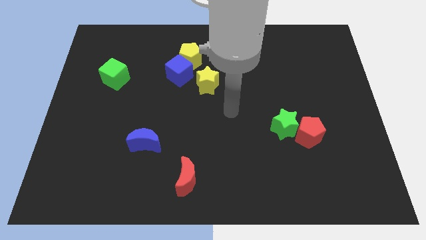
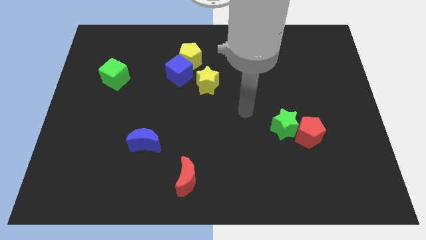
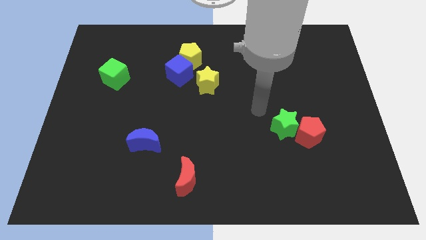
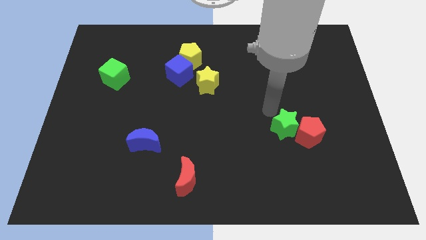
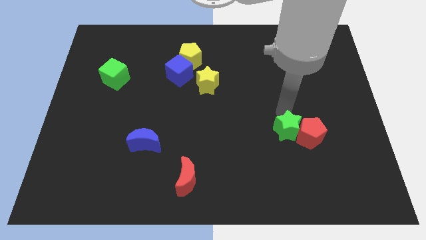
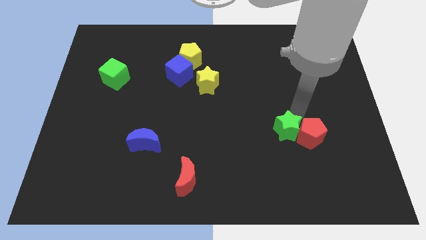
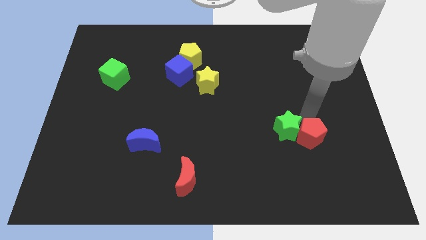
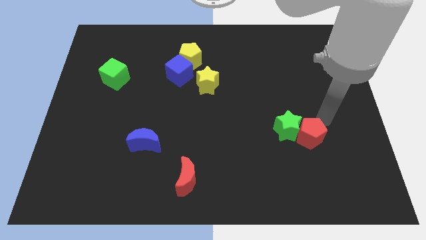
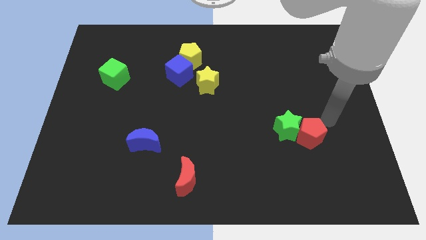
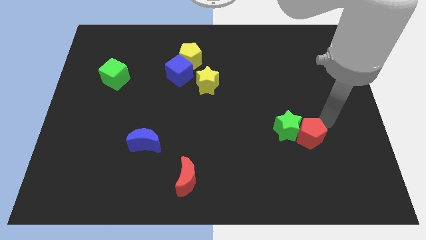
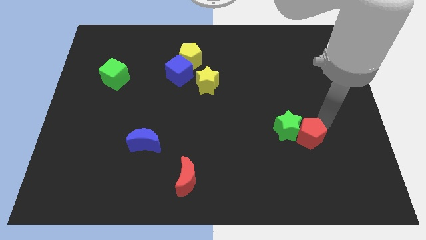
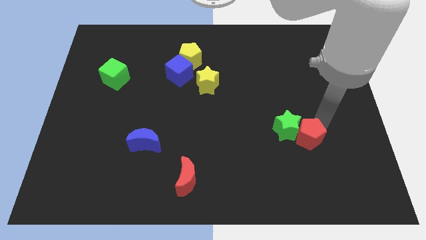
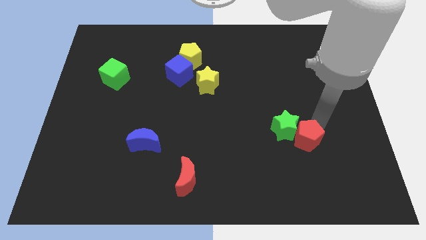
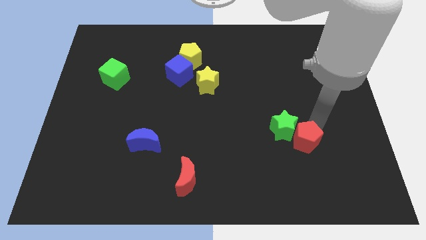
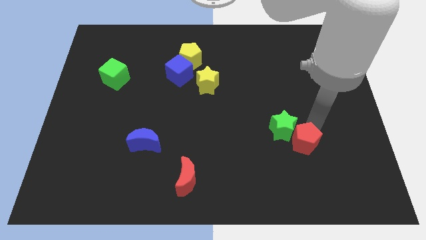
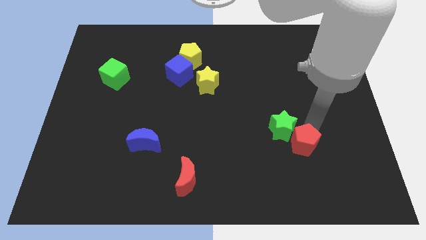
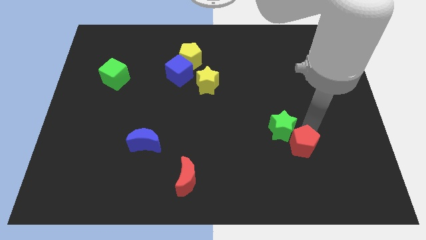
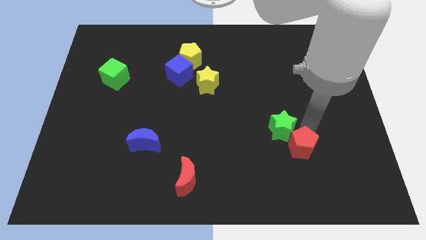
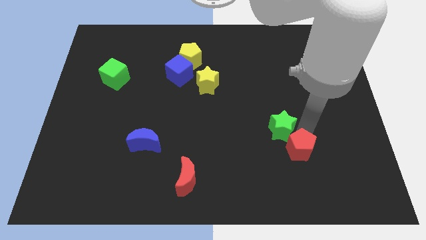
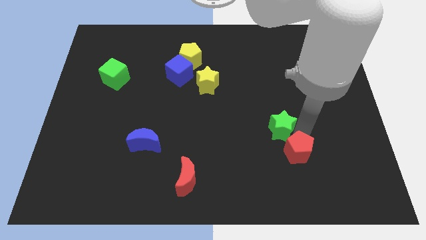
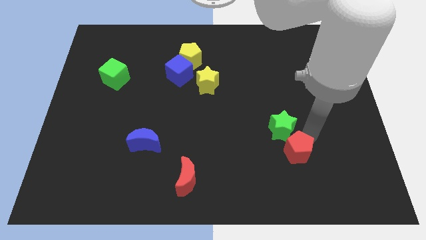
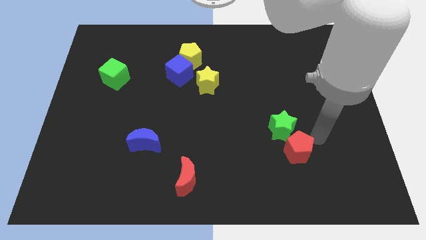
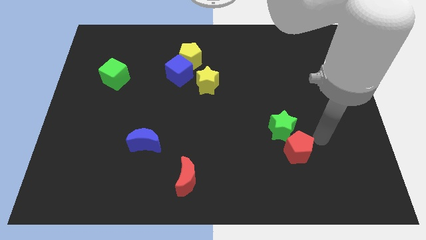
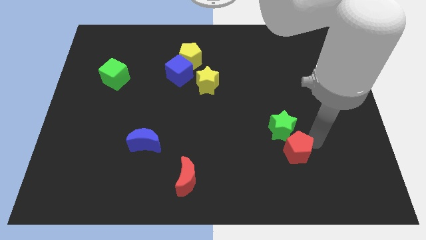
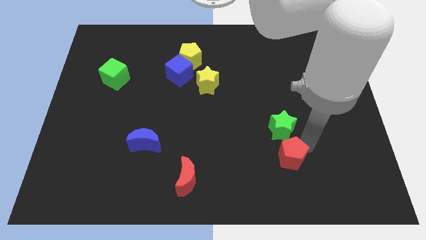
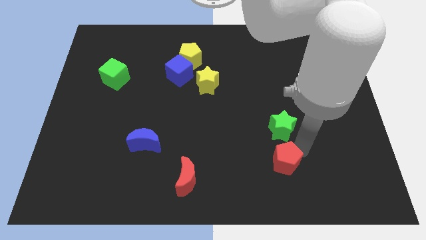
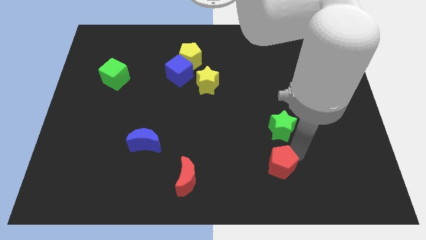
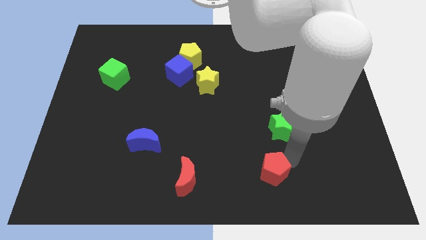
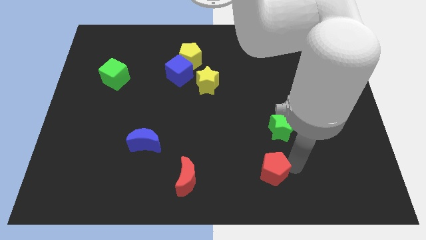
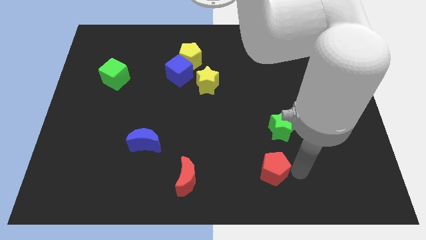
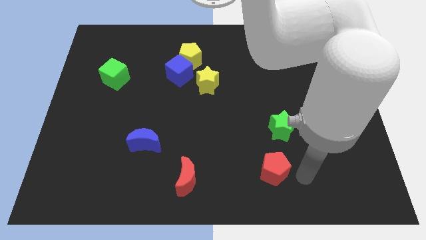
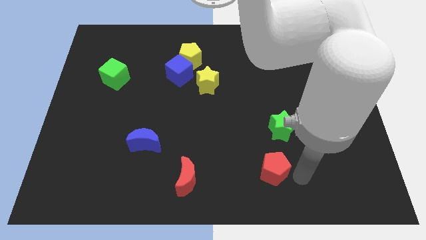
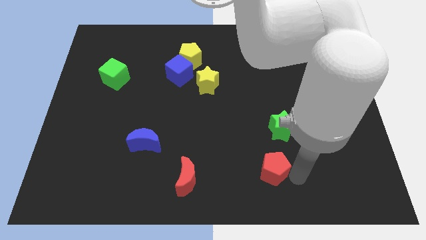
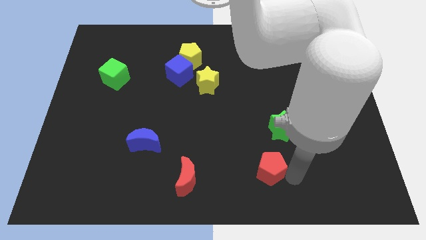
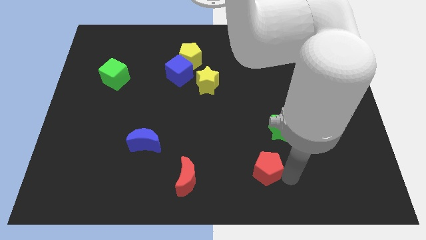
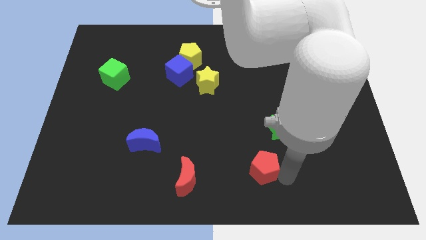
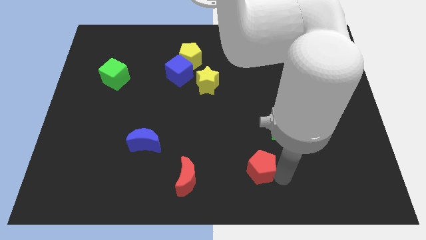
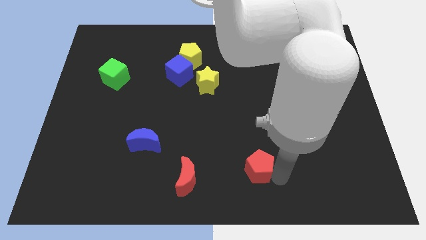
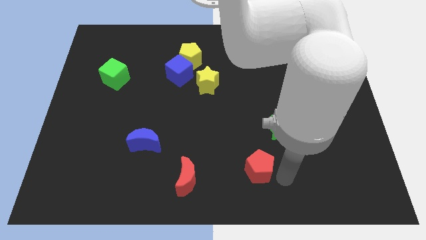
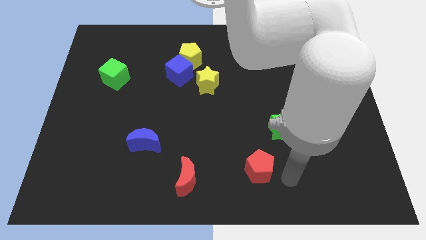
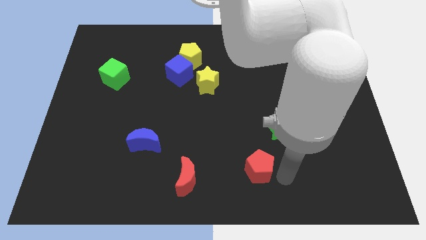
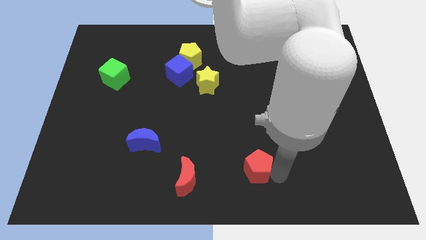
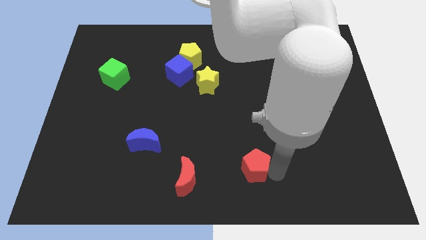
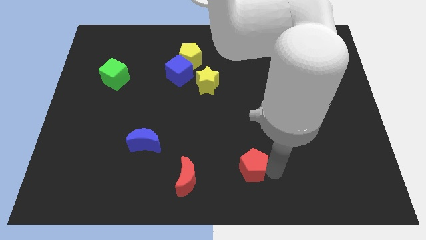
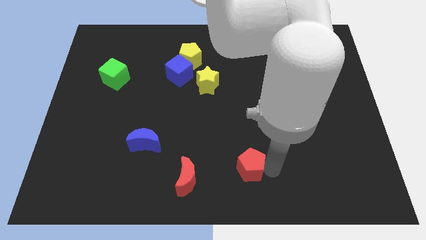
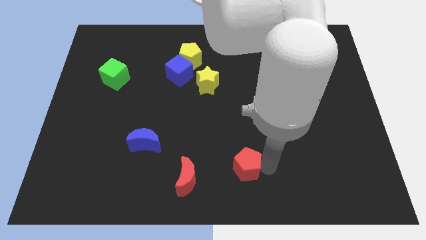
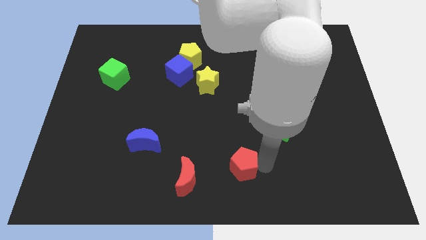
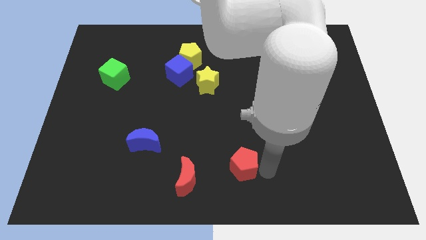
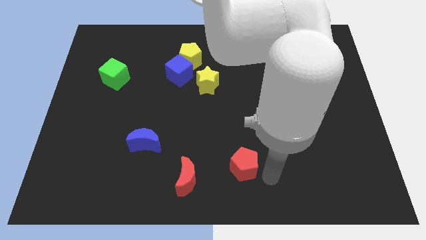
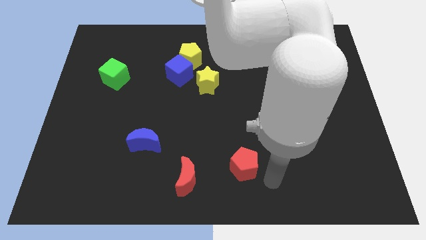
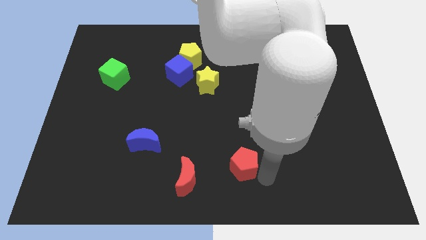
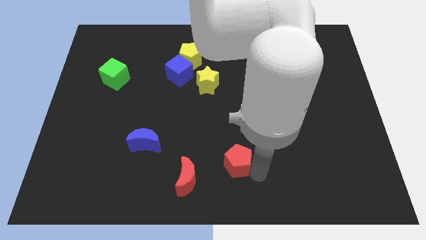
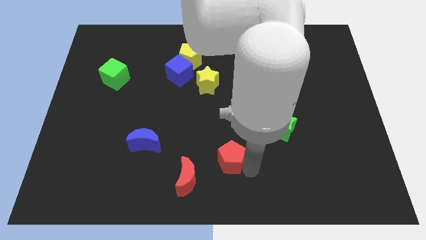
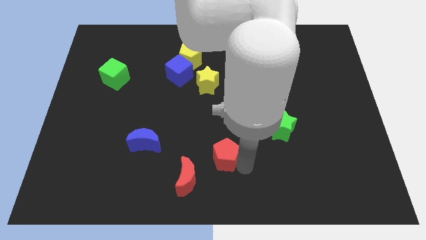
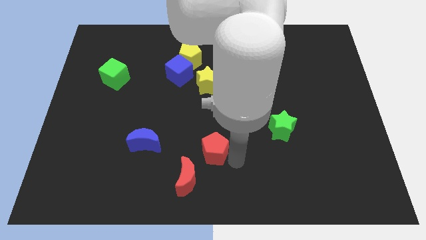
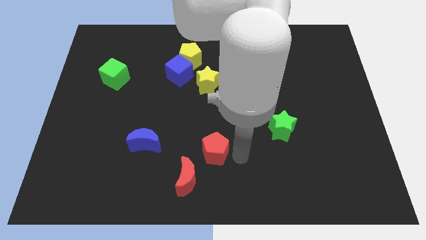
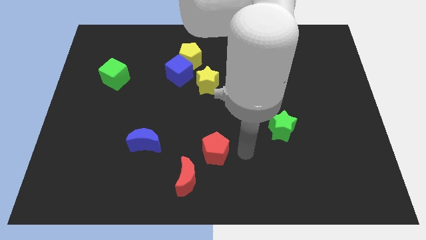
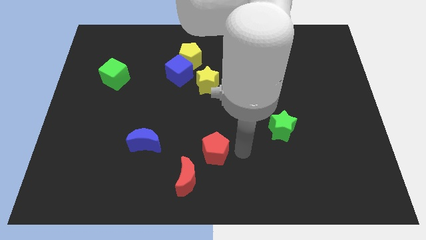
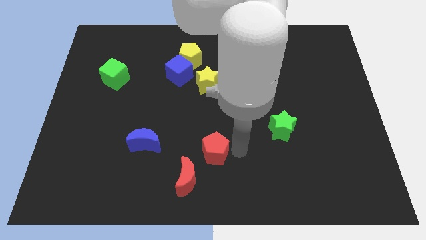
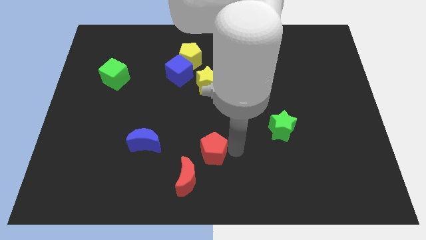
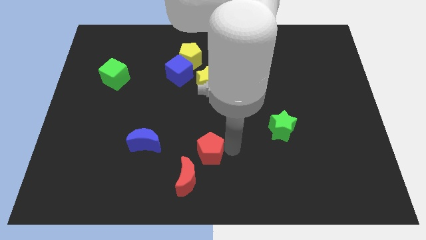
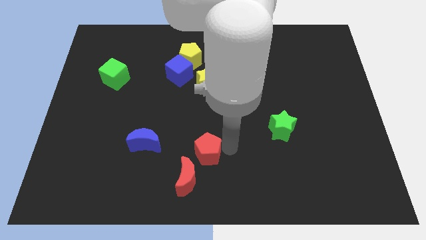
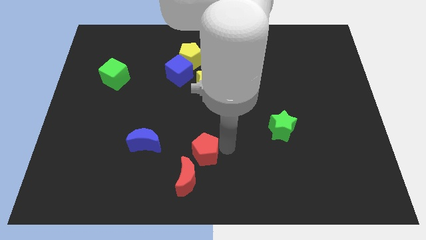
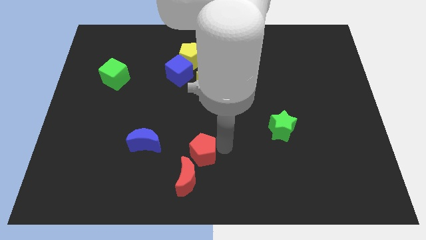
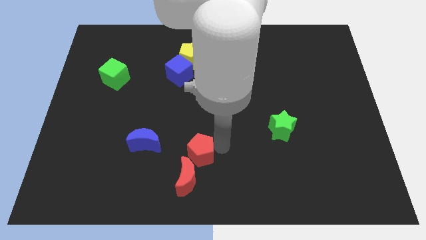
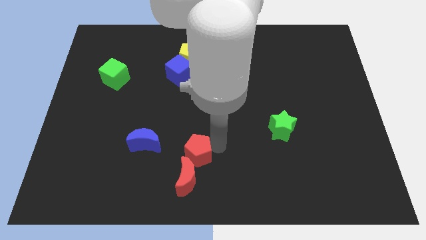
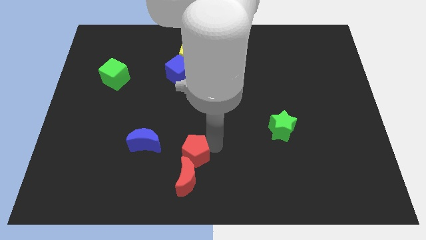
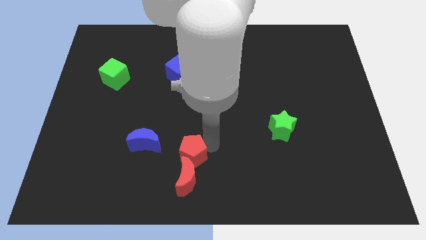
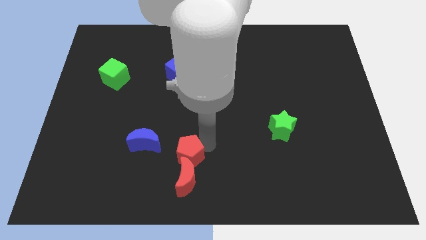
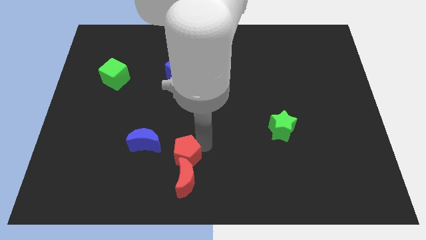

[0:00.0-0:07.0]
push the red pentagon to the bottom right side of the blue moon

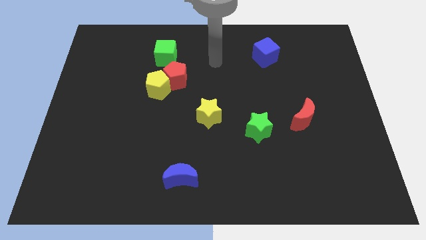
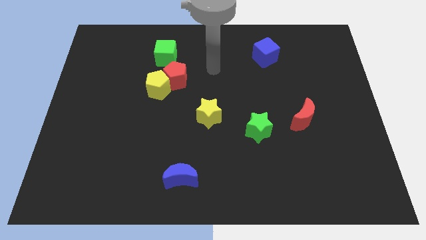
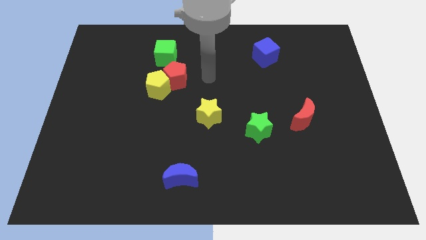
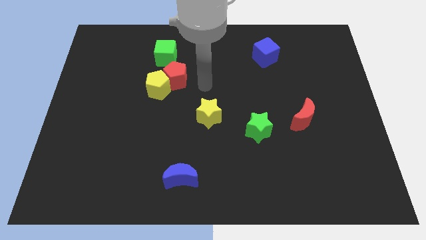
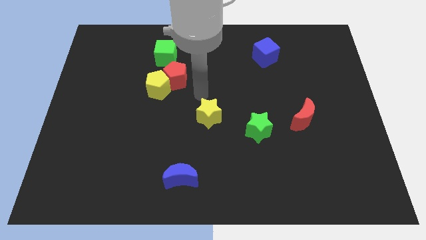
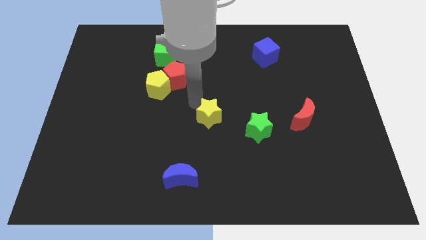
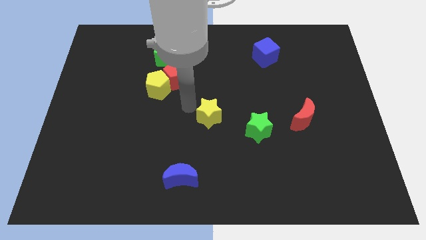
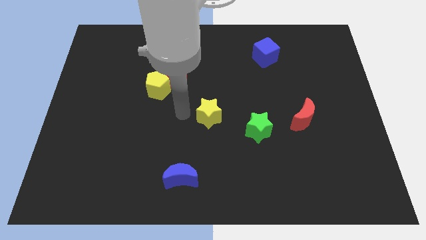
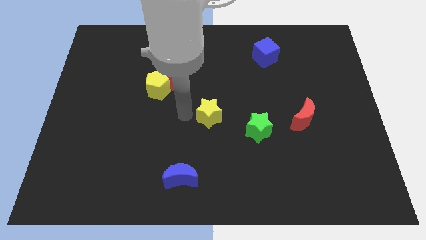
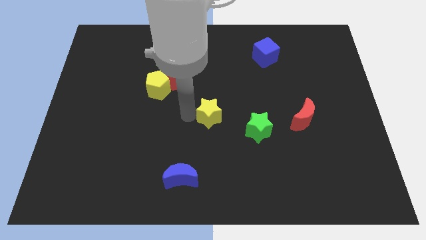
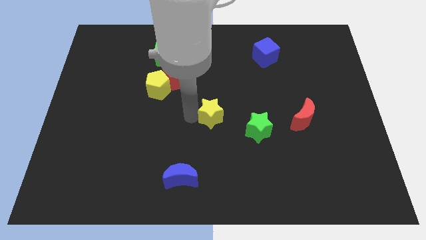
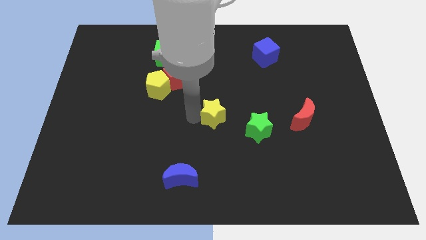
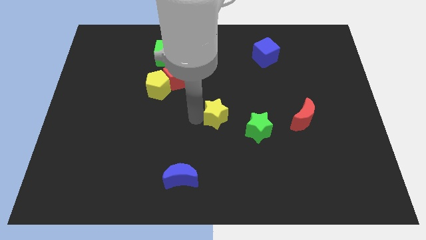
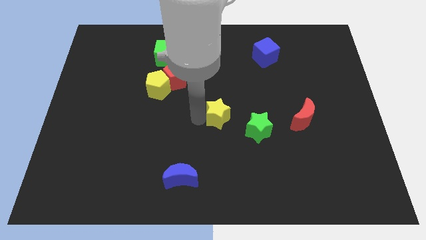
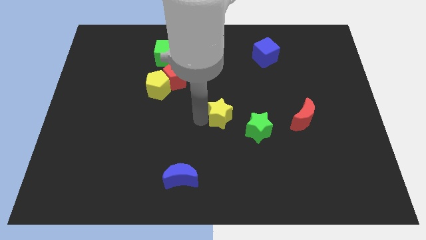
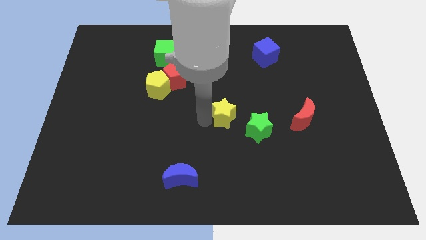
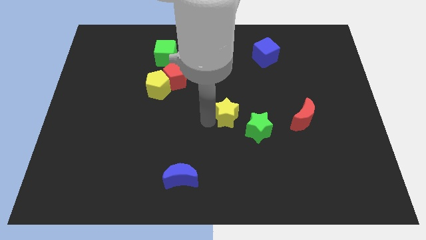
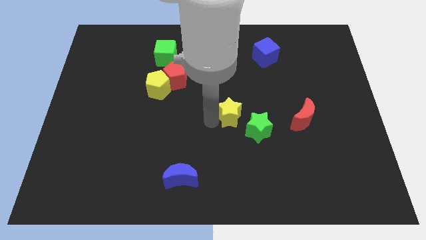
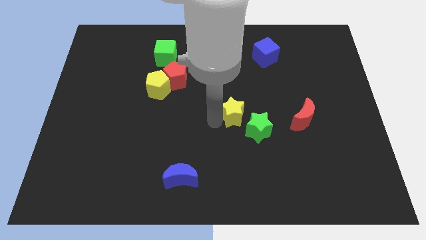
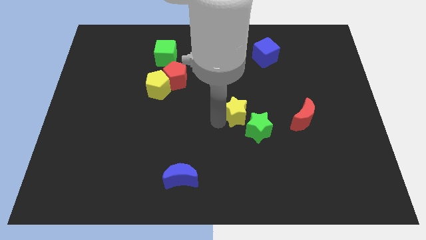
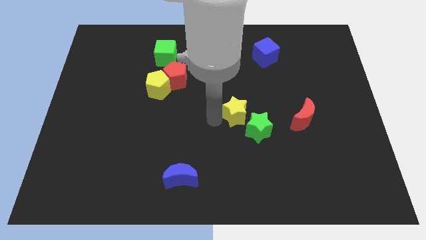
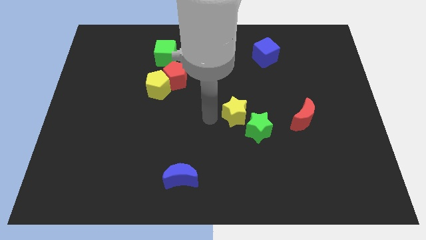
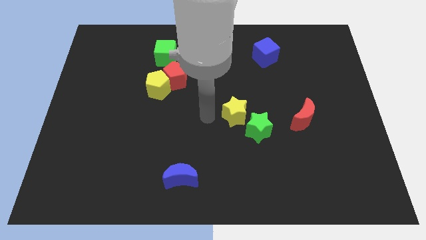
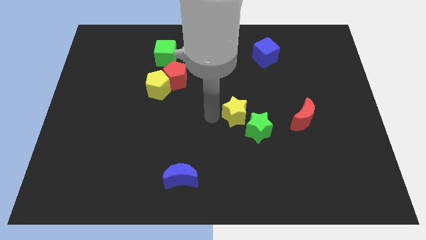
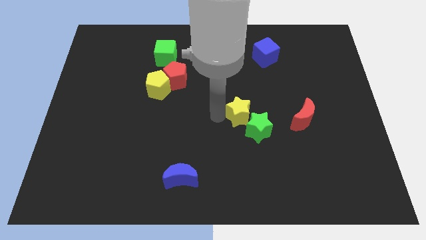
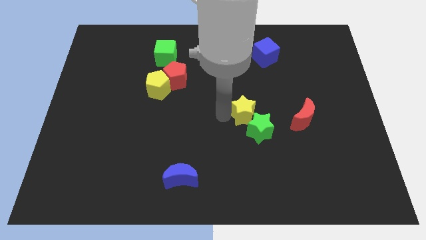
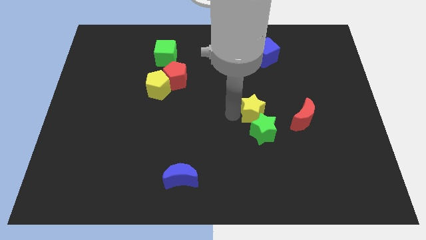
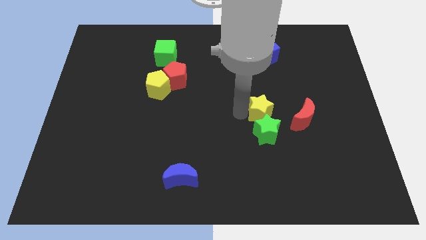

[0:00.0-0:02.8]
push the yellow star to the top right of the green star
